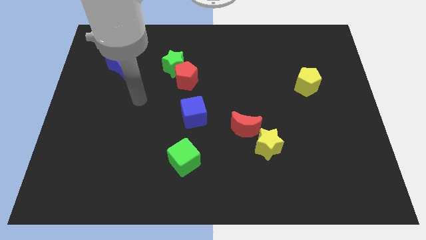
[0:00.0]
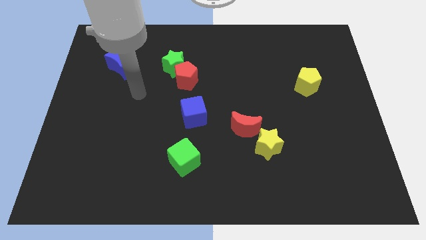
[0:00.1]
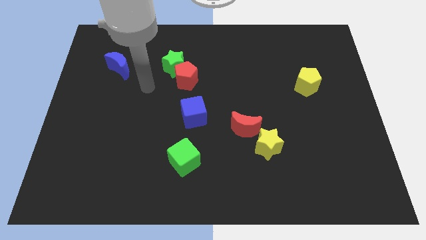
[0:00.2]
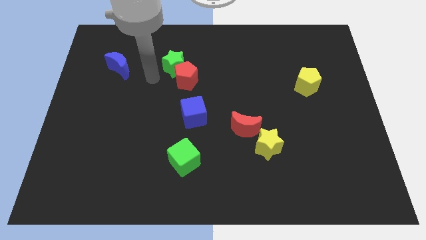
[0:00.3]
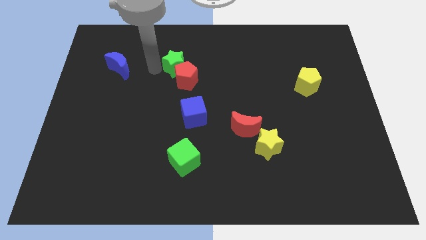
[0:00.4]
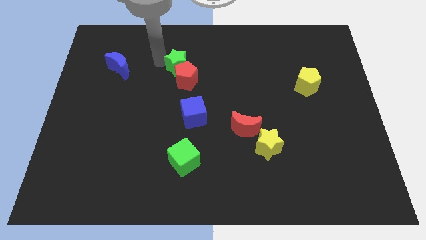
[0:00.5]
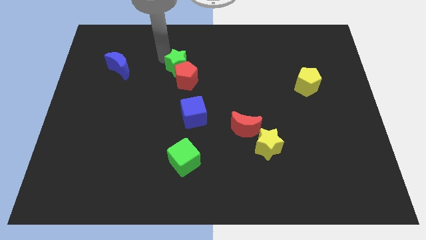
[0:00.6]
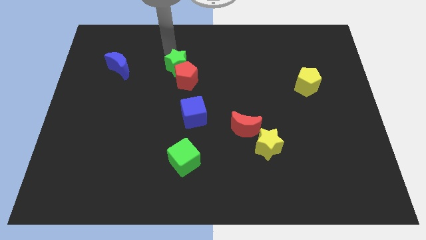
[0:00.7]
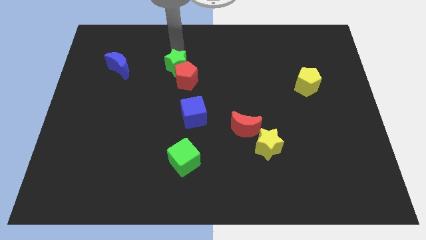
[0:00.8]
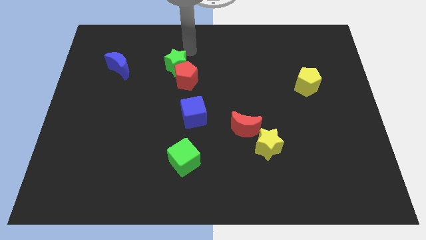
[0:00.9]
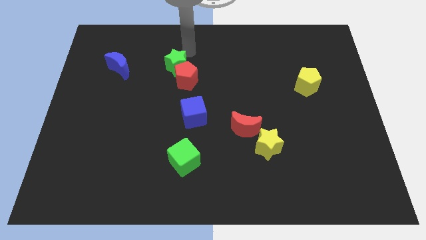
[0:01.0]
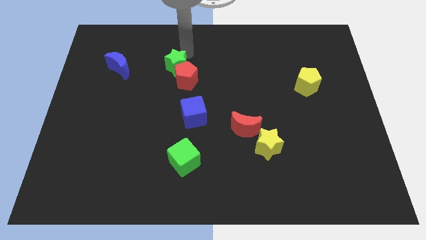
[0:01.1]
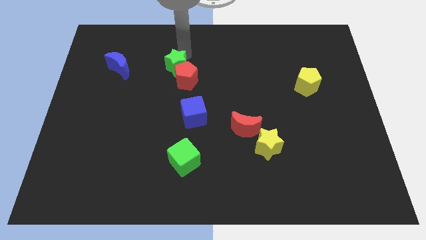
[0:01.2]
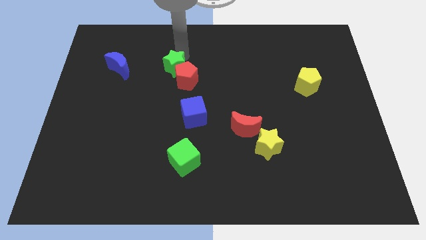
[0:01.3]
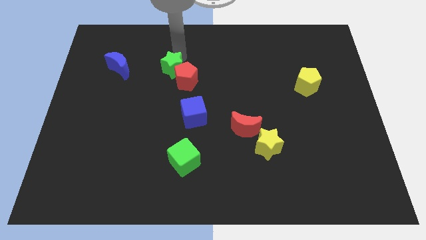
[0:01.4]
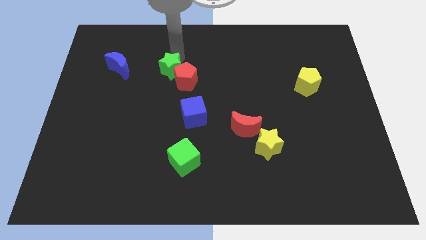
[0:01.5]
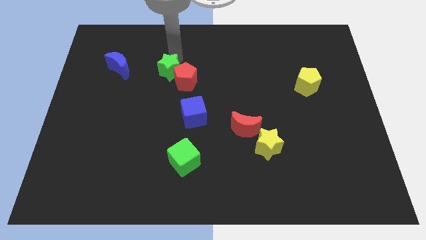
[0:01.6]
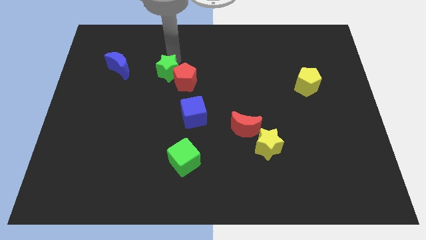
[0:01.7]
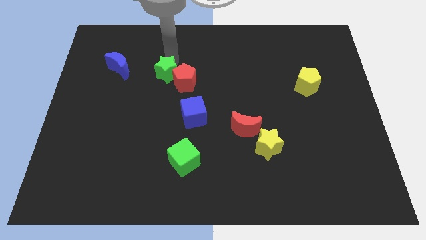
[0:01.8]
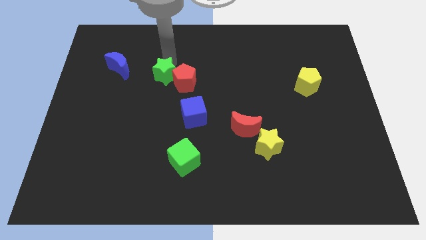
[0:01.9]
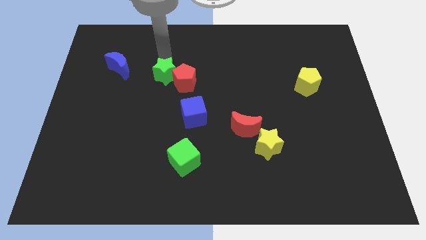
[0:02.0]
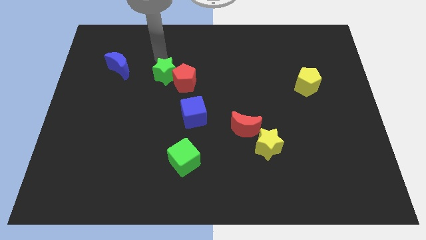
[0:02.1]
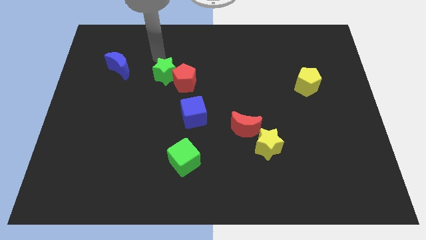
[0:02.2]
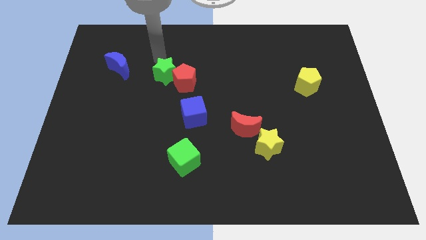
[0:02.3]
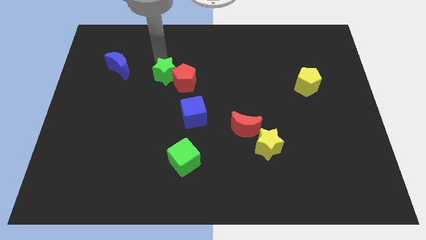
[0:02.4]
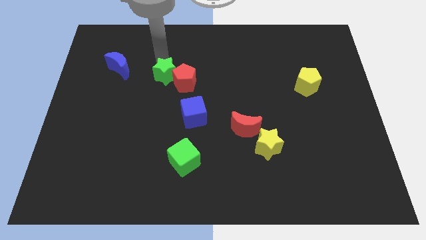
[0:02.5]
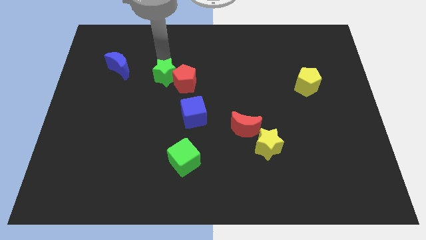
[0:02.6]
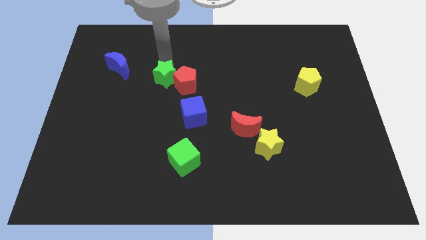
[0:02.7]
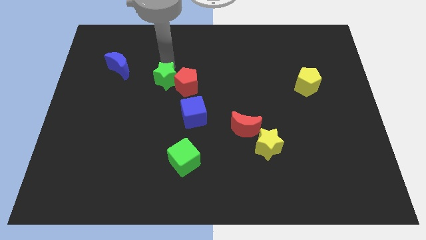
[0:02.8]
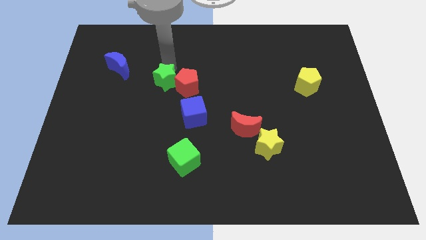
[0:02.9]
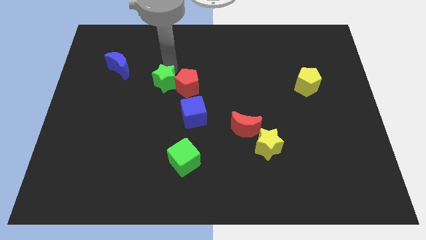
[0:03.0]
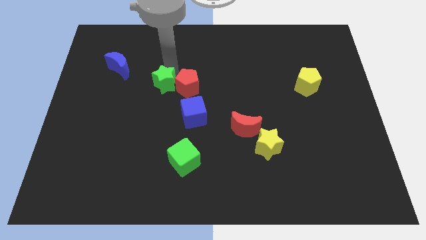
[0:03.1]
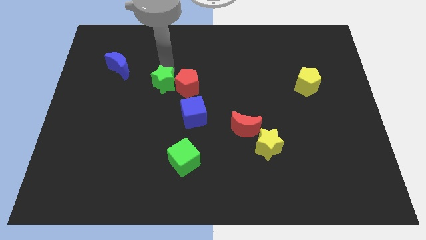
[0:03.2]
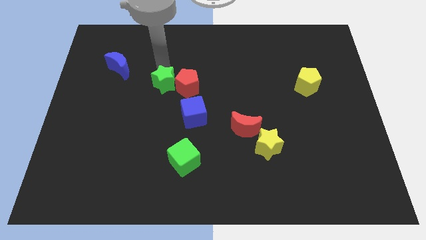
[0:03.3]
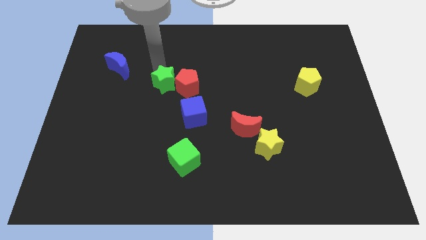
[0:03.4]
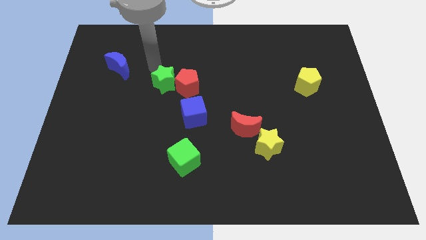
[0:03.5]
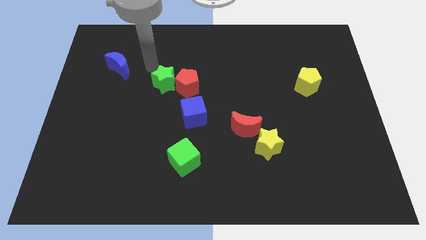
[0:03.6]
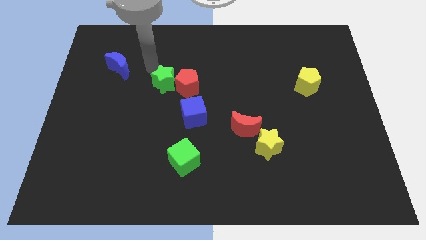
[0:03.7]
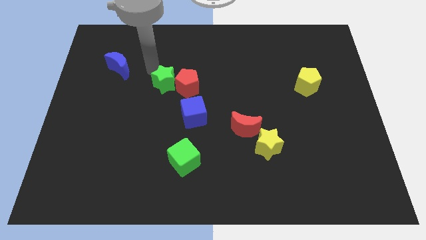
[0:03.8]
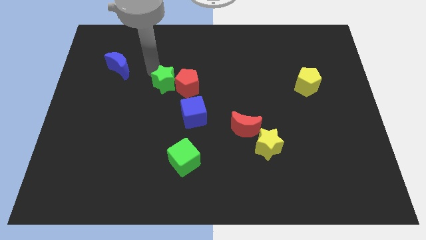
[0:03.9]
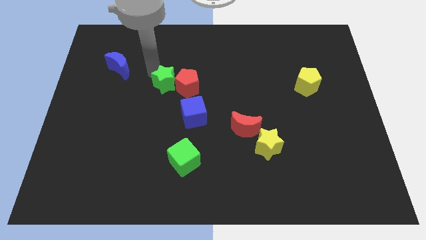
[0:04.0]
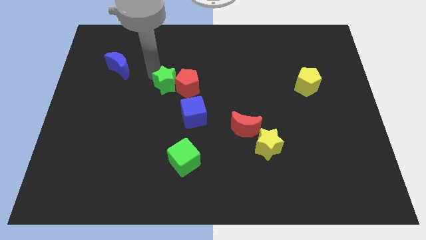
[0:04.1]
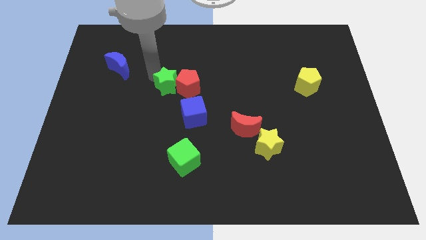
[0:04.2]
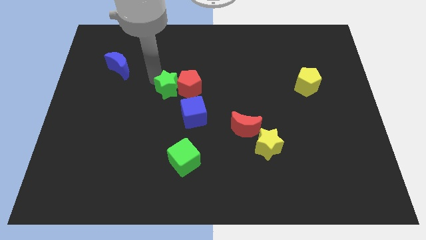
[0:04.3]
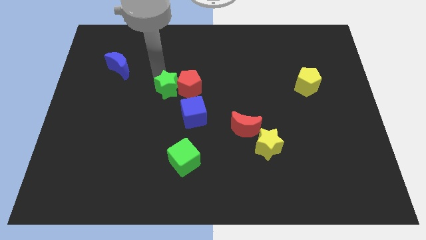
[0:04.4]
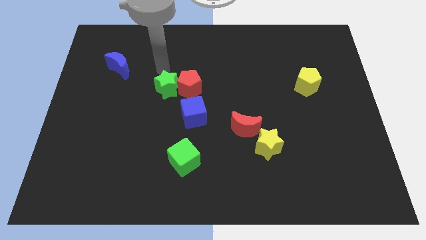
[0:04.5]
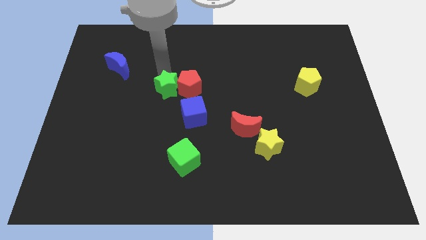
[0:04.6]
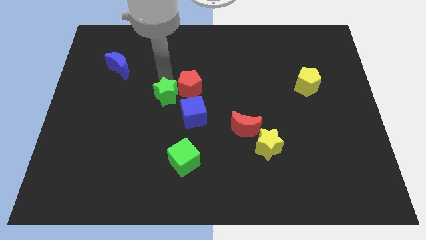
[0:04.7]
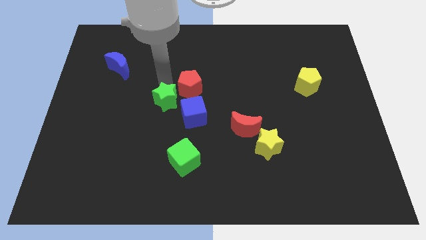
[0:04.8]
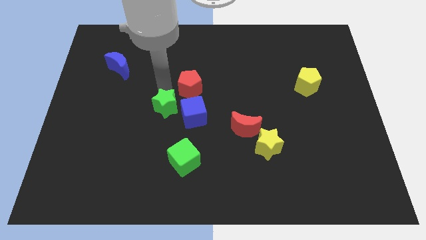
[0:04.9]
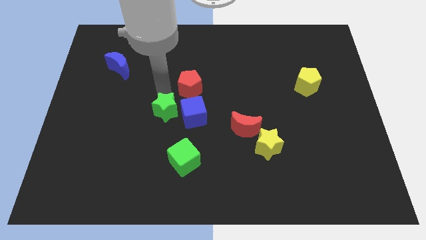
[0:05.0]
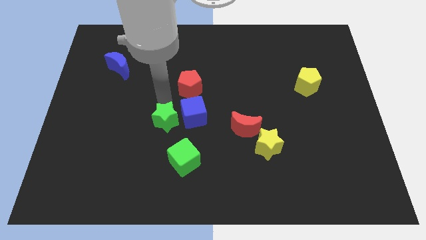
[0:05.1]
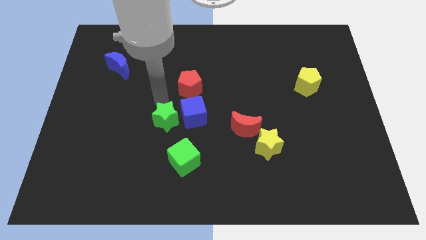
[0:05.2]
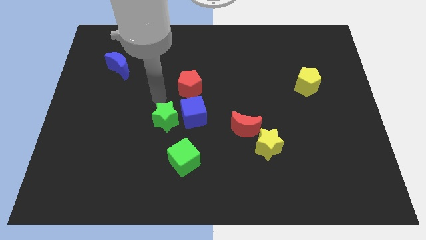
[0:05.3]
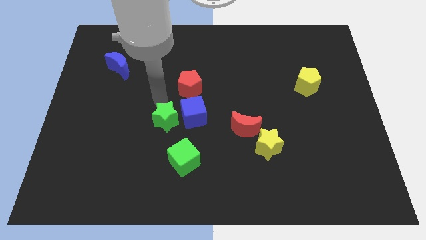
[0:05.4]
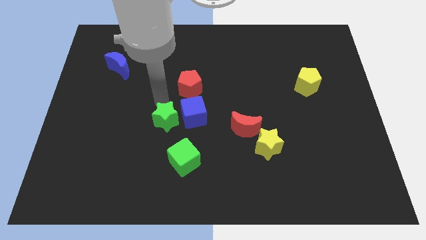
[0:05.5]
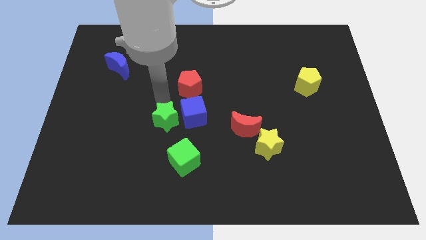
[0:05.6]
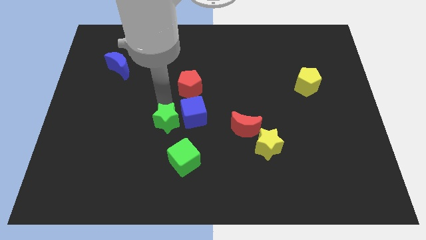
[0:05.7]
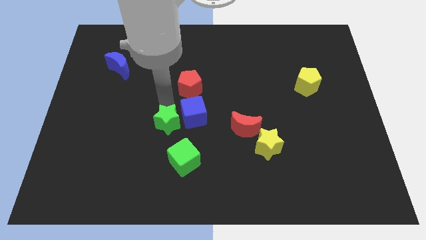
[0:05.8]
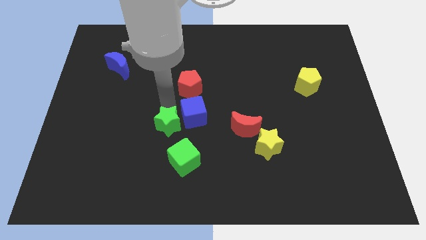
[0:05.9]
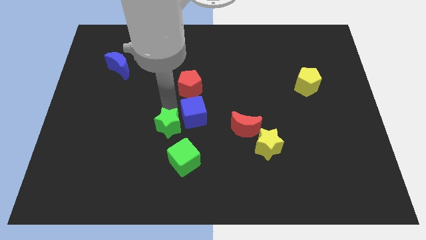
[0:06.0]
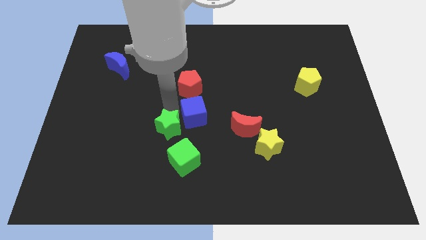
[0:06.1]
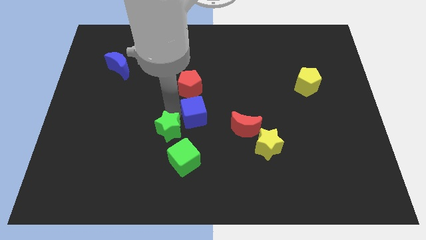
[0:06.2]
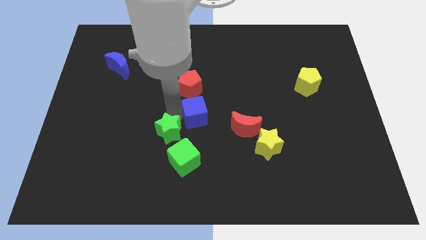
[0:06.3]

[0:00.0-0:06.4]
move the green star downwards

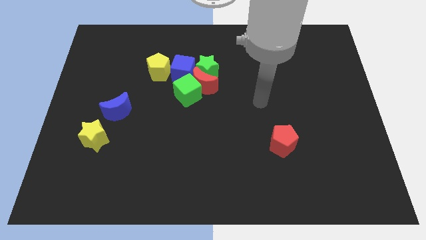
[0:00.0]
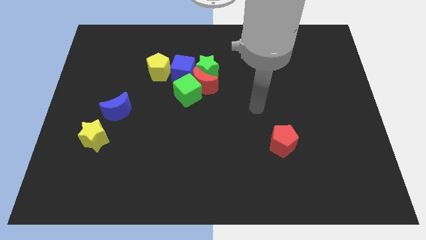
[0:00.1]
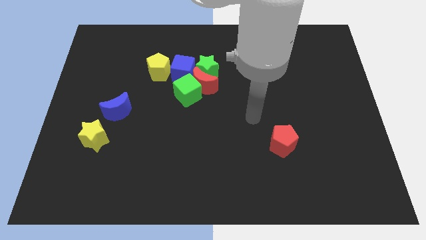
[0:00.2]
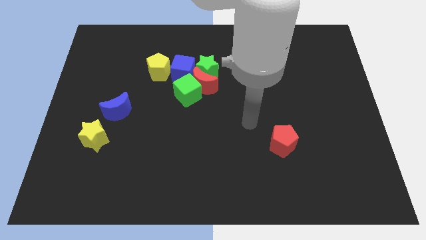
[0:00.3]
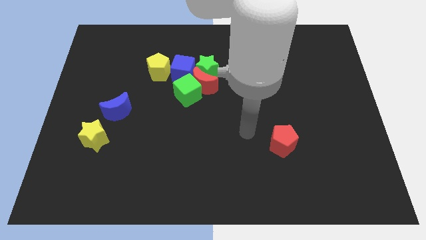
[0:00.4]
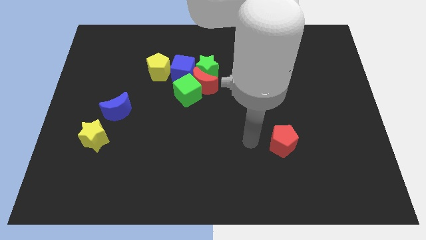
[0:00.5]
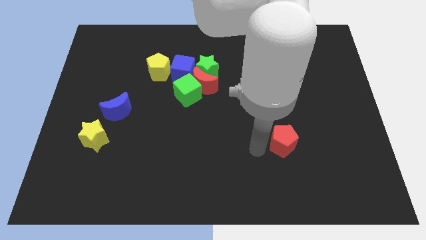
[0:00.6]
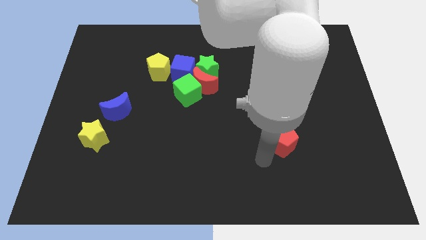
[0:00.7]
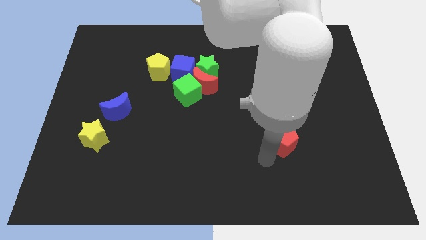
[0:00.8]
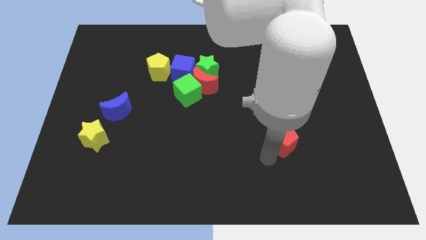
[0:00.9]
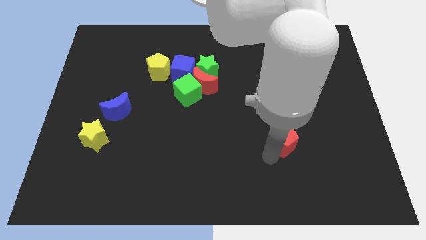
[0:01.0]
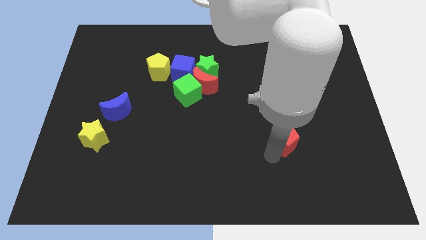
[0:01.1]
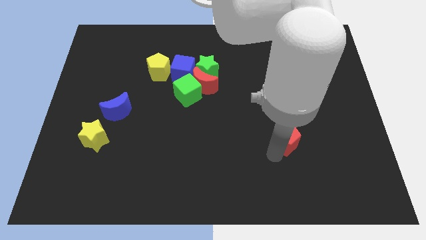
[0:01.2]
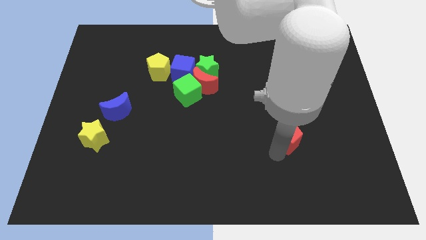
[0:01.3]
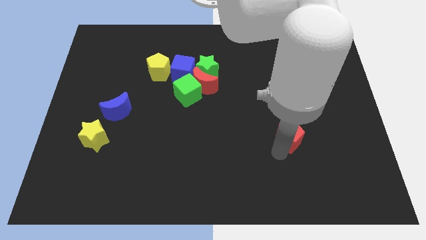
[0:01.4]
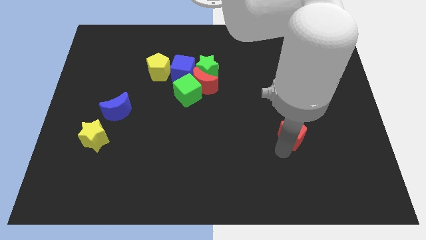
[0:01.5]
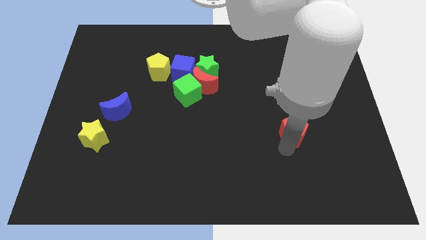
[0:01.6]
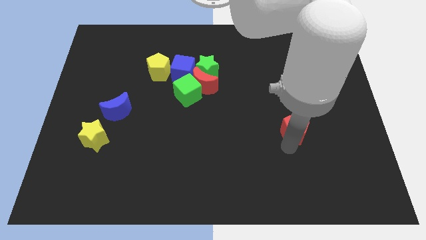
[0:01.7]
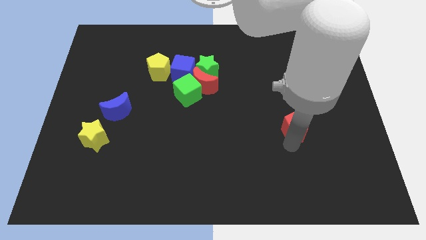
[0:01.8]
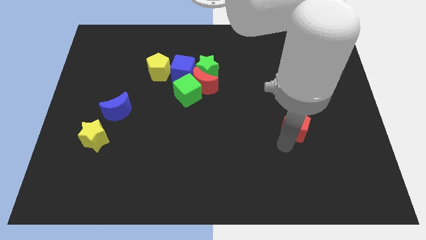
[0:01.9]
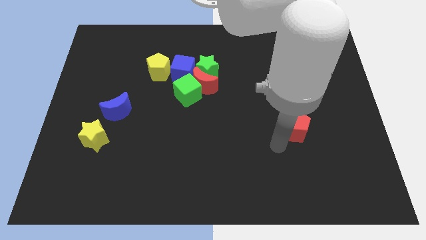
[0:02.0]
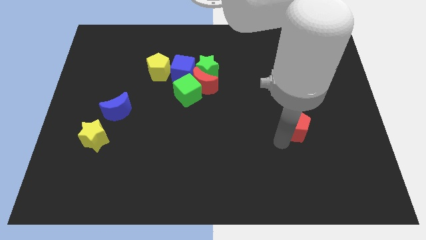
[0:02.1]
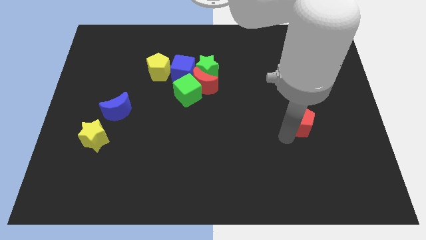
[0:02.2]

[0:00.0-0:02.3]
slide the red pentagon slightly upwards and then right
